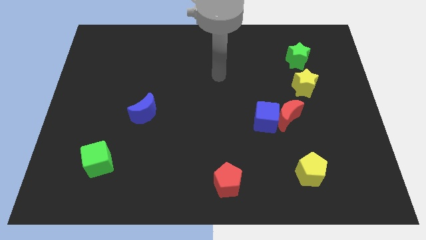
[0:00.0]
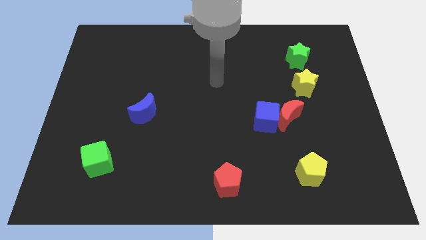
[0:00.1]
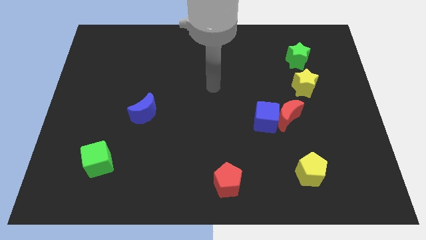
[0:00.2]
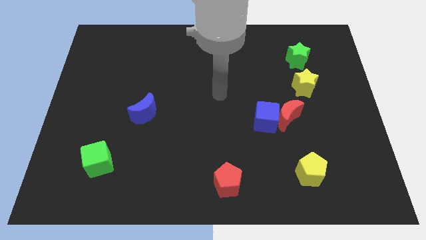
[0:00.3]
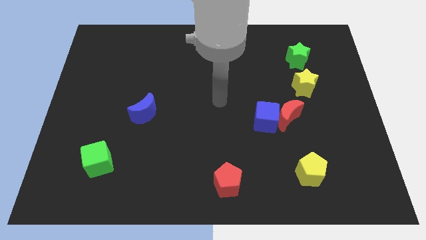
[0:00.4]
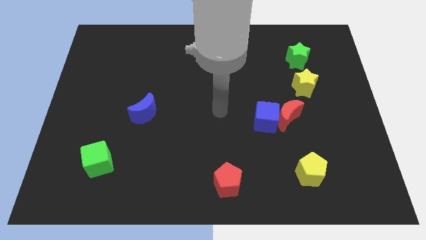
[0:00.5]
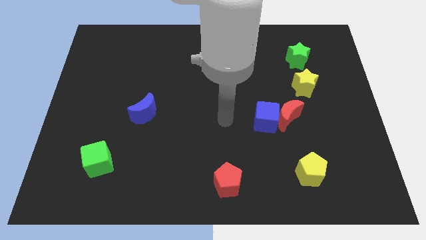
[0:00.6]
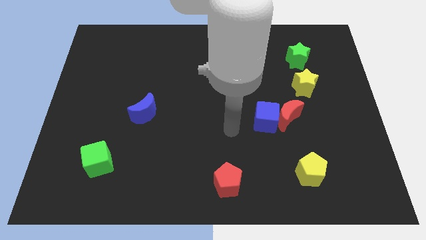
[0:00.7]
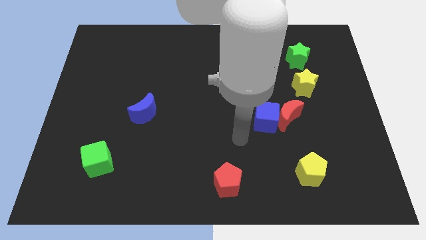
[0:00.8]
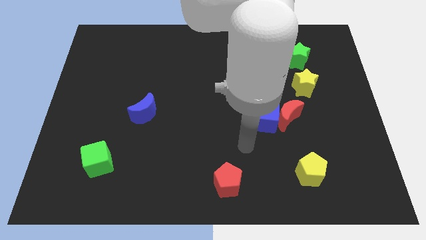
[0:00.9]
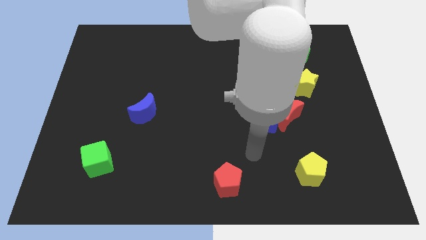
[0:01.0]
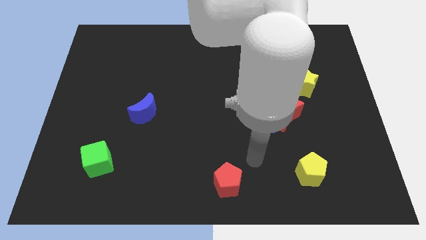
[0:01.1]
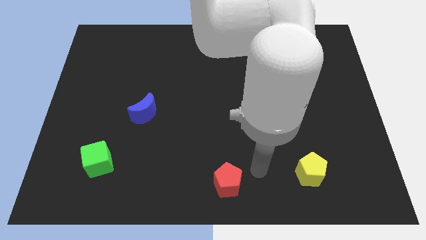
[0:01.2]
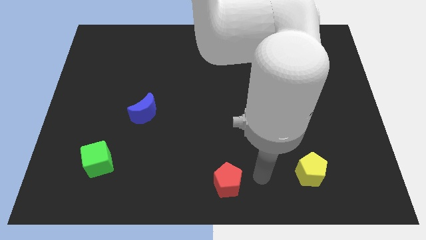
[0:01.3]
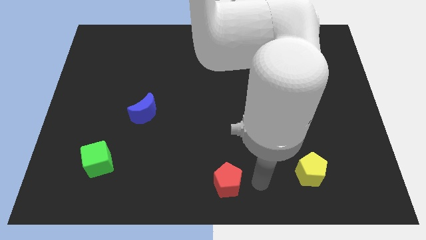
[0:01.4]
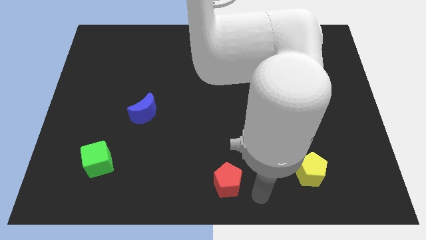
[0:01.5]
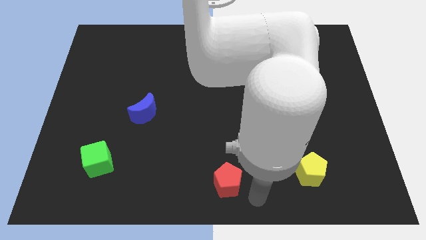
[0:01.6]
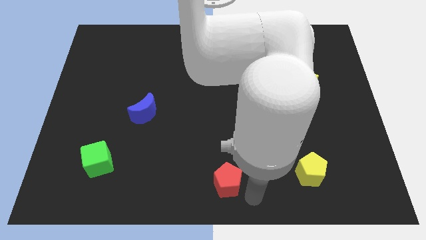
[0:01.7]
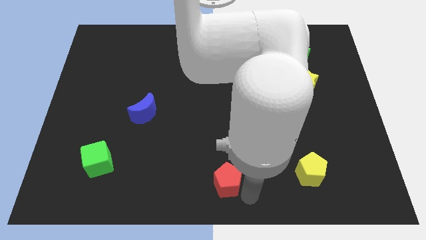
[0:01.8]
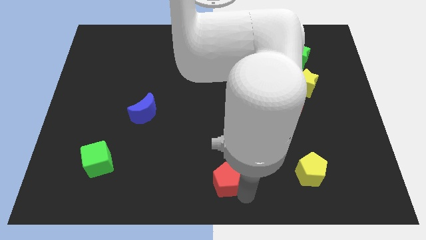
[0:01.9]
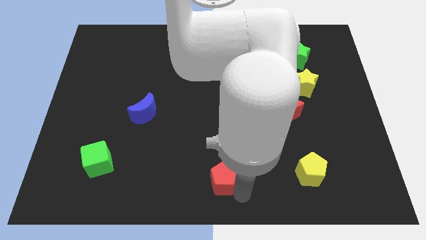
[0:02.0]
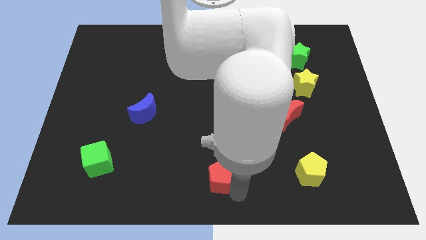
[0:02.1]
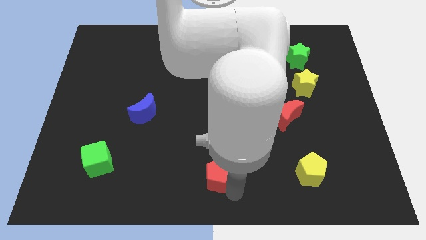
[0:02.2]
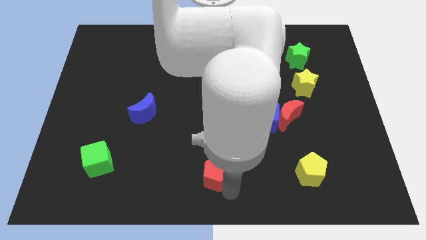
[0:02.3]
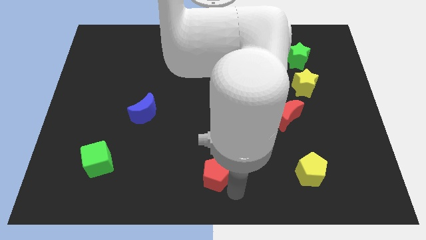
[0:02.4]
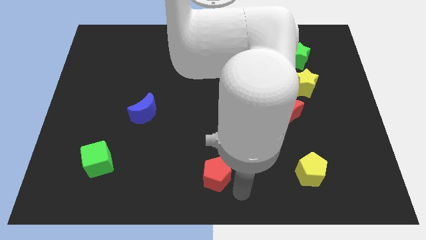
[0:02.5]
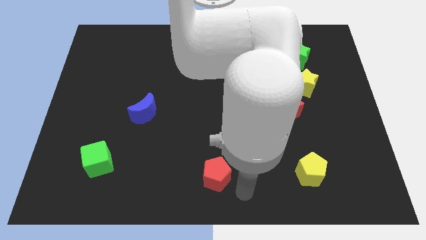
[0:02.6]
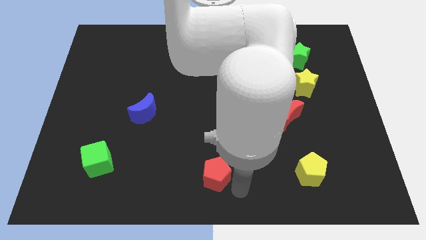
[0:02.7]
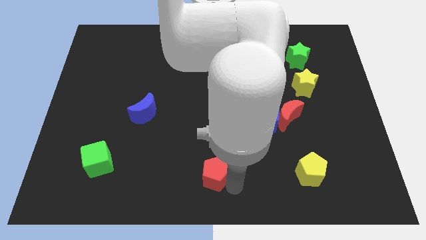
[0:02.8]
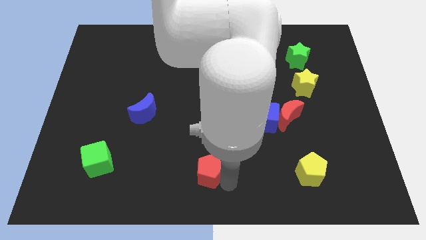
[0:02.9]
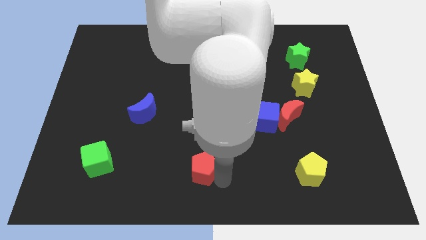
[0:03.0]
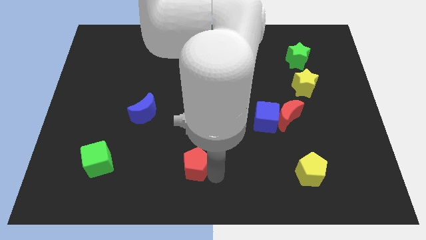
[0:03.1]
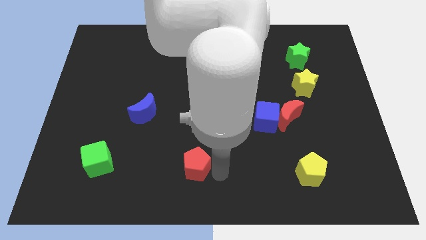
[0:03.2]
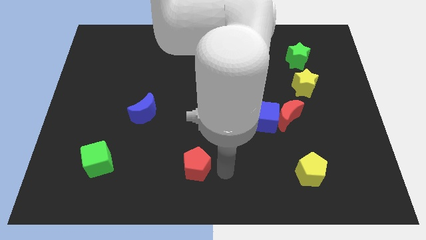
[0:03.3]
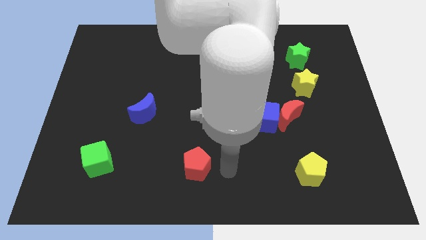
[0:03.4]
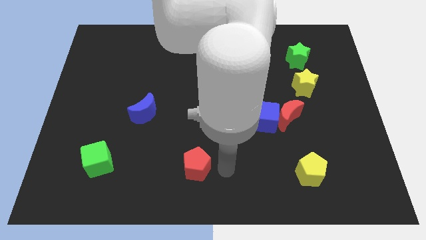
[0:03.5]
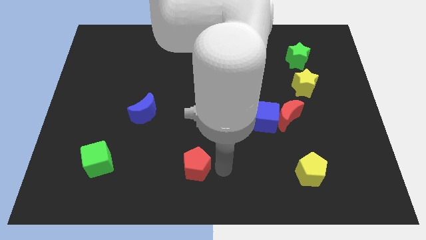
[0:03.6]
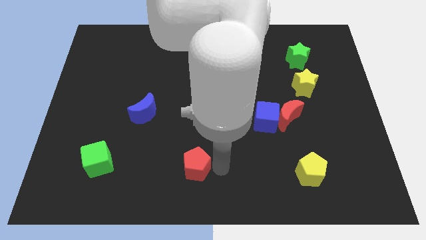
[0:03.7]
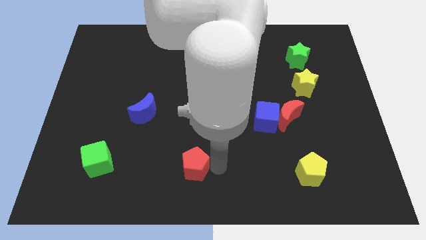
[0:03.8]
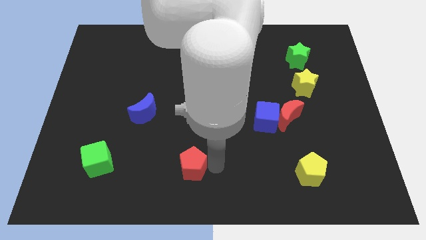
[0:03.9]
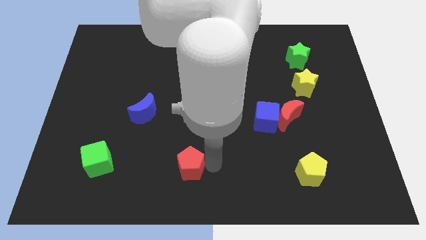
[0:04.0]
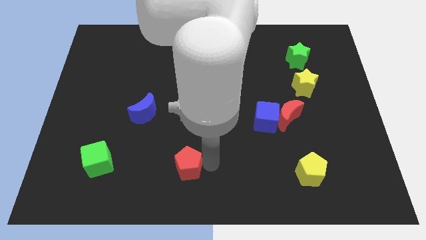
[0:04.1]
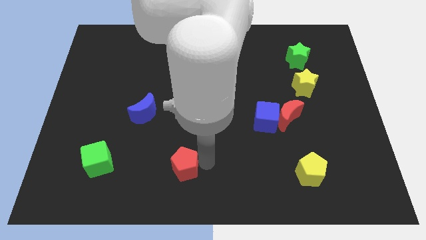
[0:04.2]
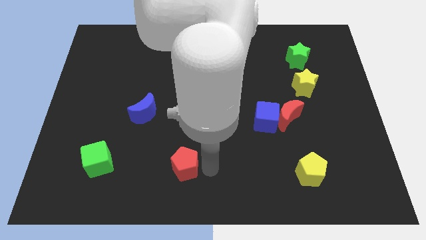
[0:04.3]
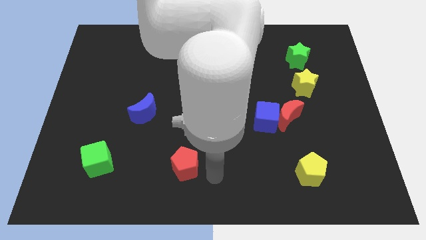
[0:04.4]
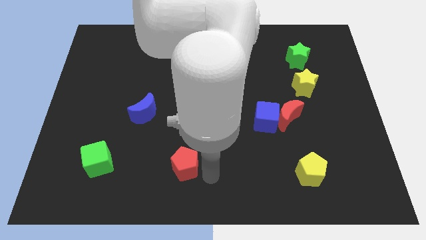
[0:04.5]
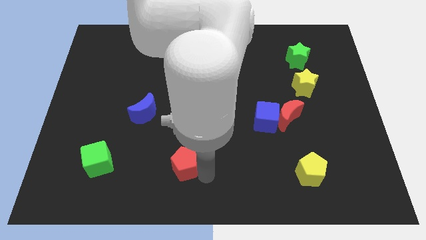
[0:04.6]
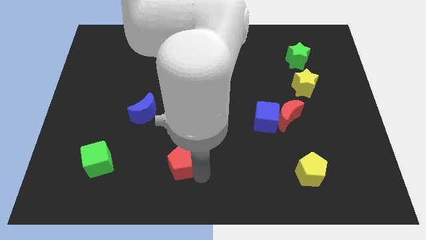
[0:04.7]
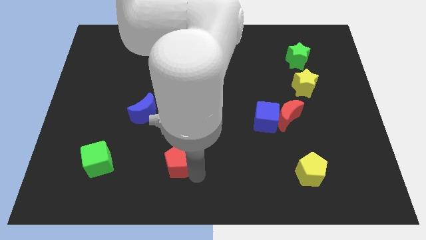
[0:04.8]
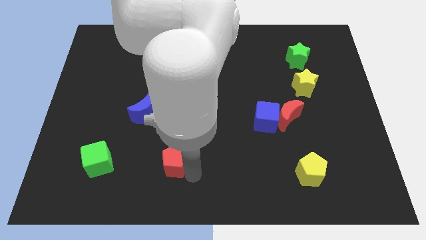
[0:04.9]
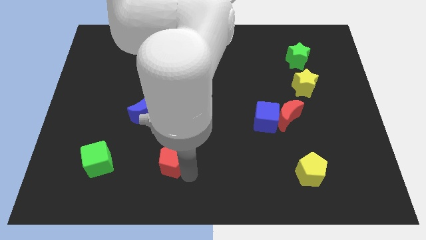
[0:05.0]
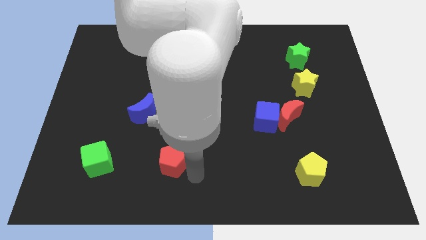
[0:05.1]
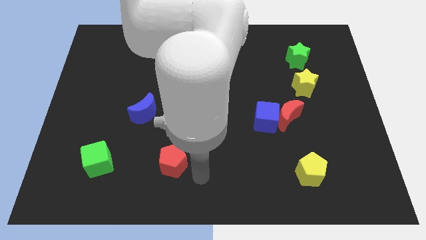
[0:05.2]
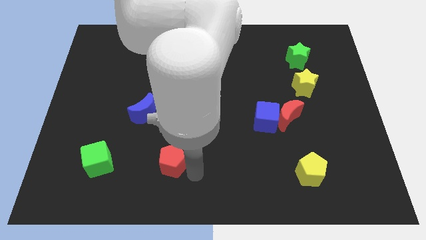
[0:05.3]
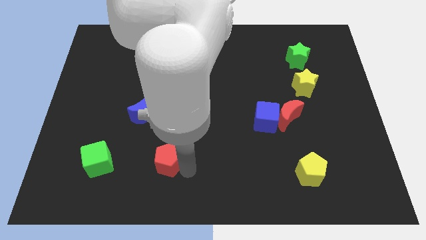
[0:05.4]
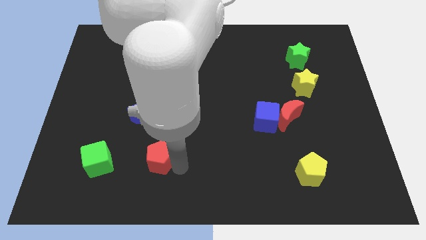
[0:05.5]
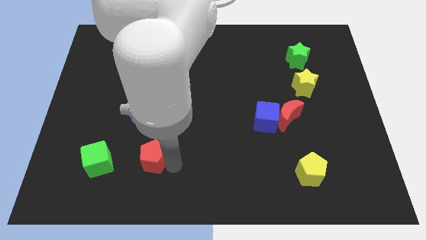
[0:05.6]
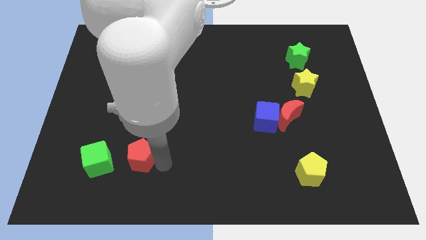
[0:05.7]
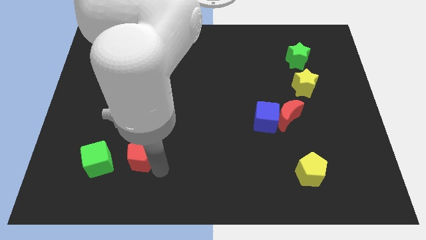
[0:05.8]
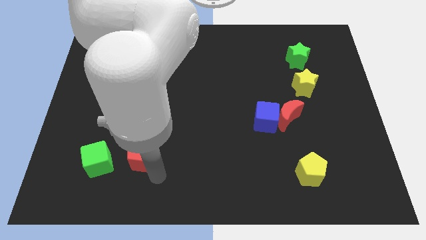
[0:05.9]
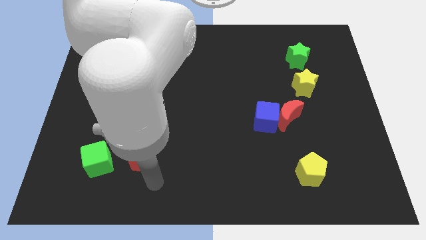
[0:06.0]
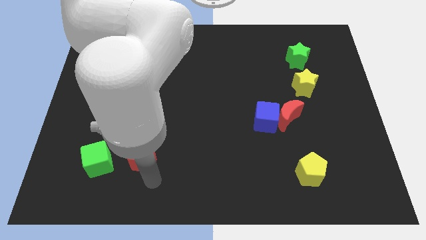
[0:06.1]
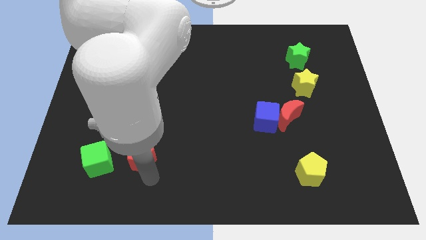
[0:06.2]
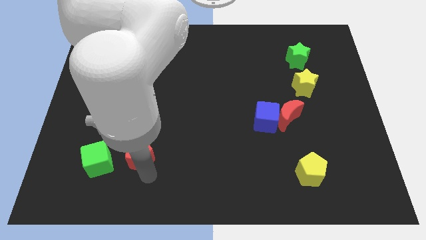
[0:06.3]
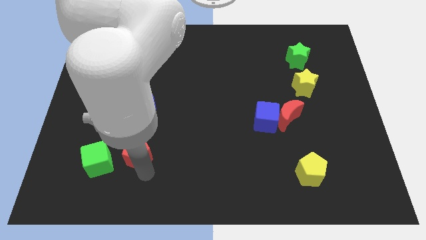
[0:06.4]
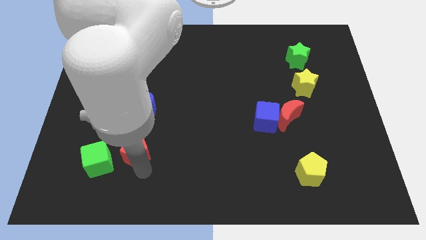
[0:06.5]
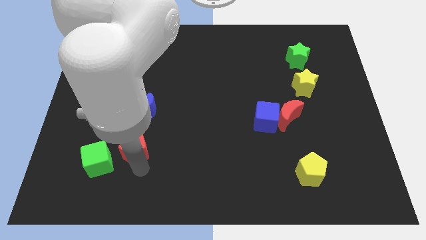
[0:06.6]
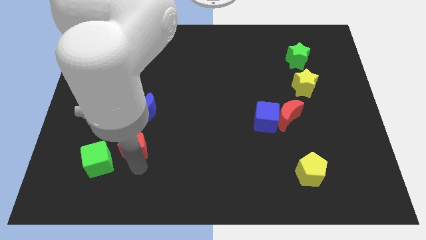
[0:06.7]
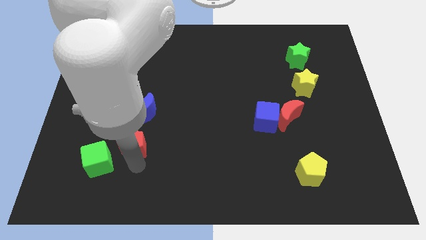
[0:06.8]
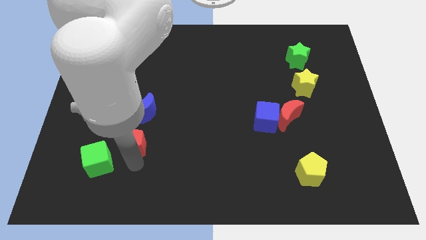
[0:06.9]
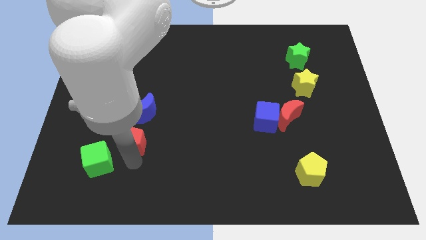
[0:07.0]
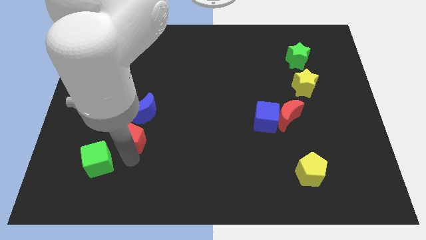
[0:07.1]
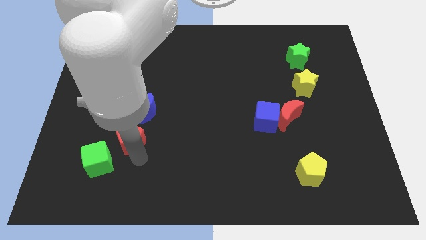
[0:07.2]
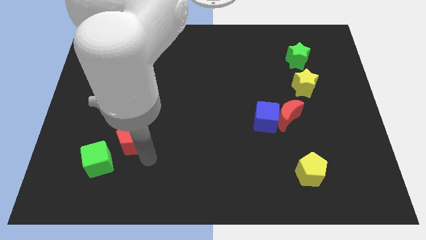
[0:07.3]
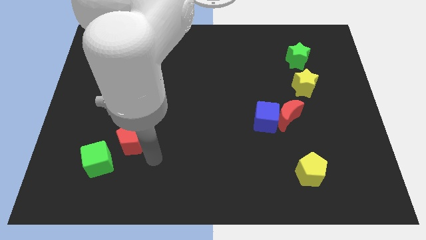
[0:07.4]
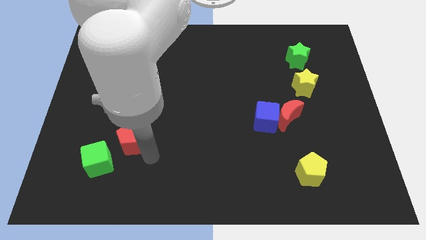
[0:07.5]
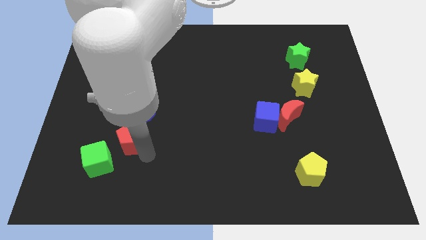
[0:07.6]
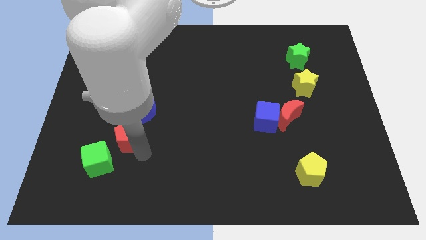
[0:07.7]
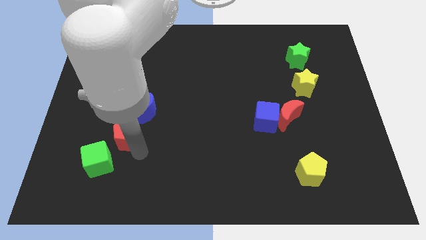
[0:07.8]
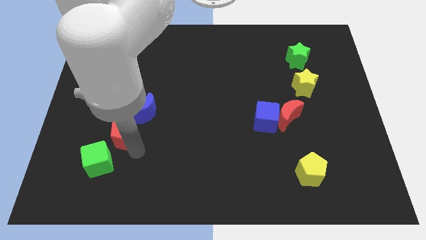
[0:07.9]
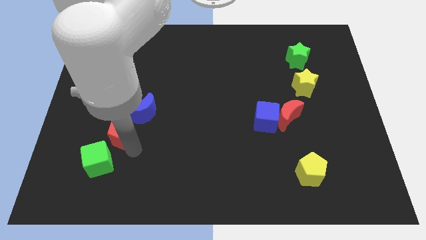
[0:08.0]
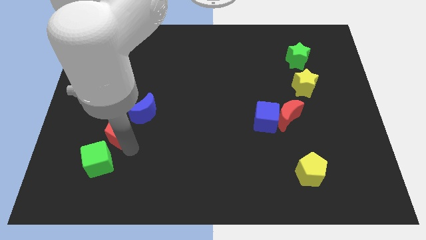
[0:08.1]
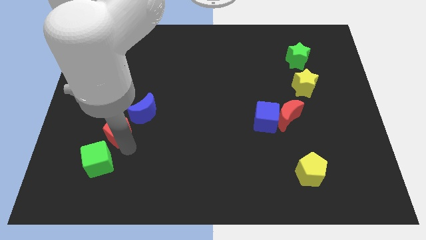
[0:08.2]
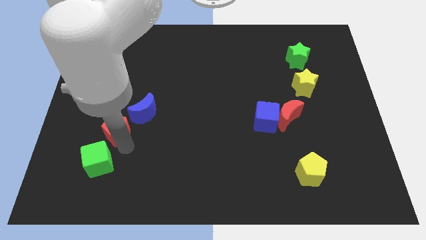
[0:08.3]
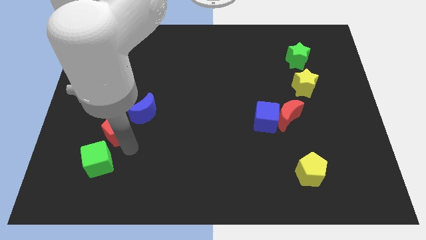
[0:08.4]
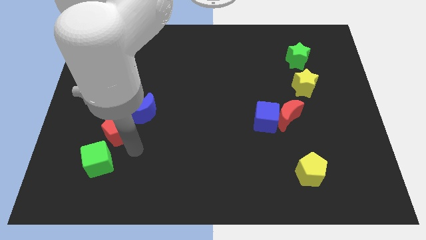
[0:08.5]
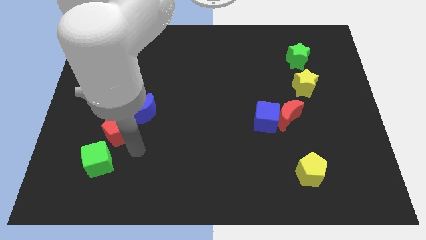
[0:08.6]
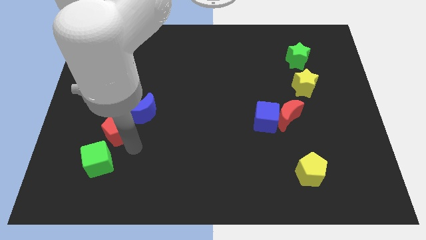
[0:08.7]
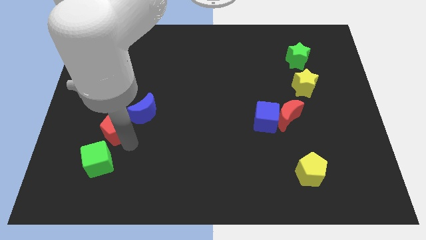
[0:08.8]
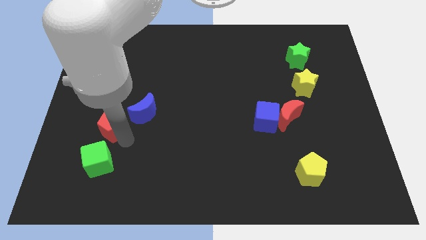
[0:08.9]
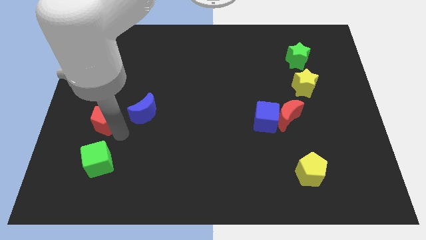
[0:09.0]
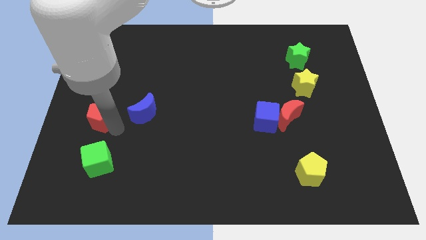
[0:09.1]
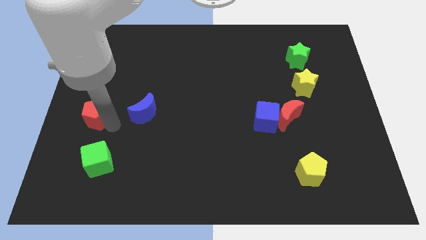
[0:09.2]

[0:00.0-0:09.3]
push the red pentagon to the center left
